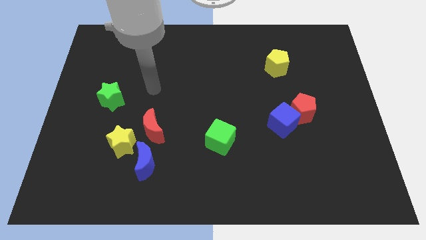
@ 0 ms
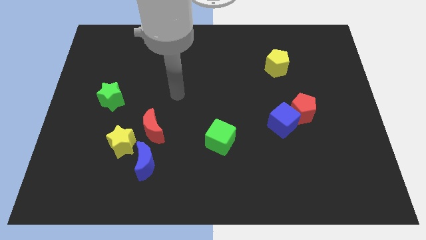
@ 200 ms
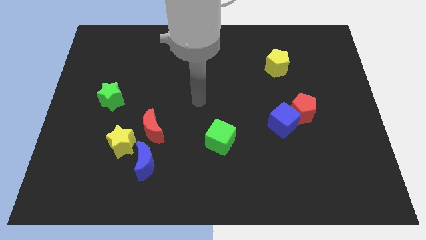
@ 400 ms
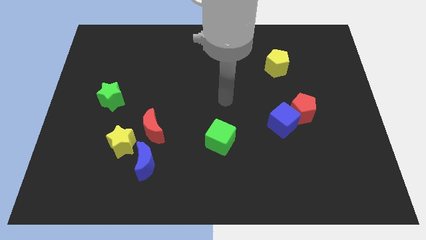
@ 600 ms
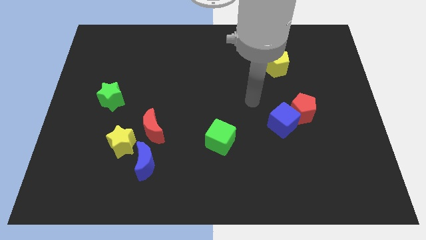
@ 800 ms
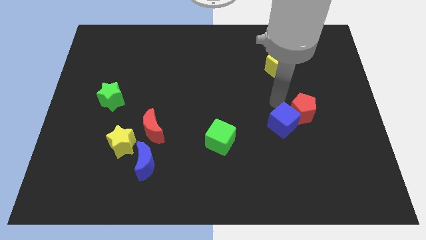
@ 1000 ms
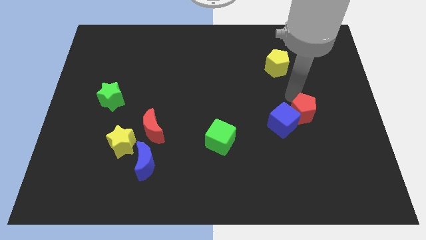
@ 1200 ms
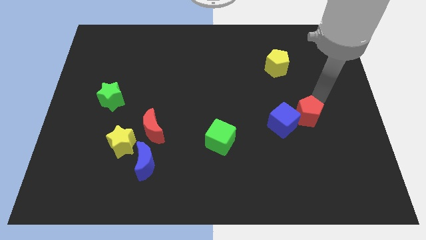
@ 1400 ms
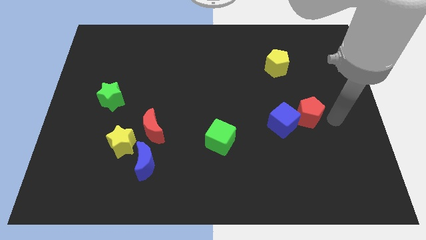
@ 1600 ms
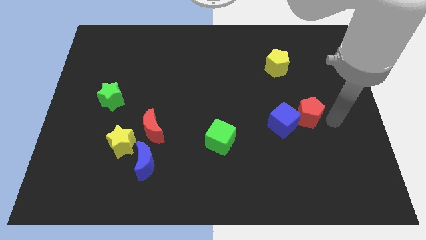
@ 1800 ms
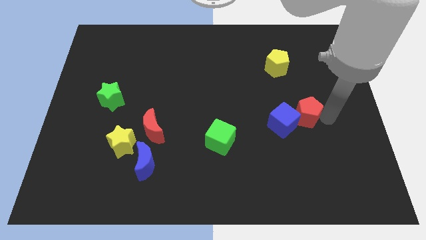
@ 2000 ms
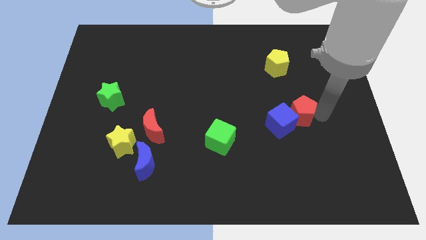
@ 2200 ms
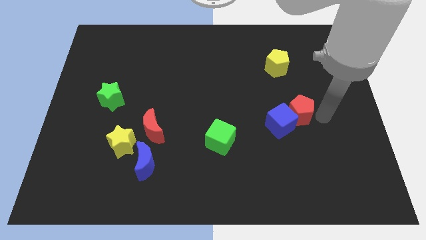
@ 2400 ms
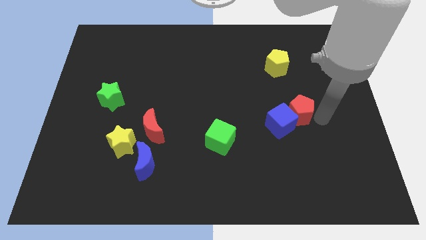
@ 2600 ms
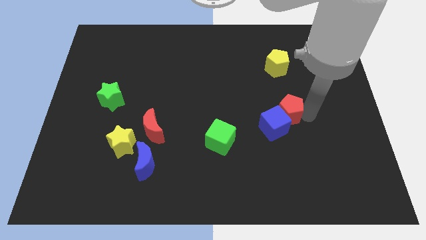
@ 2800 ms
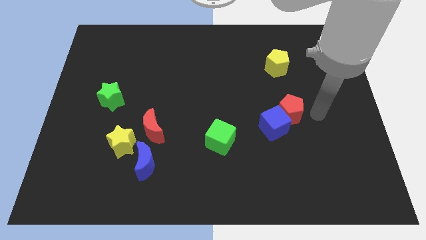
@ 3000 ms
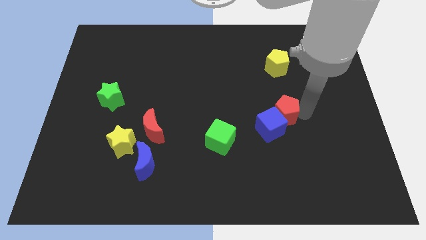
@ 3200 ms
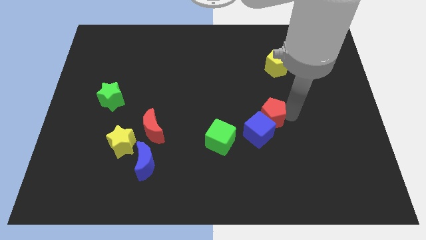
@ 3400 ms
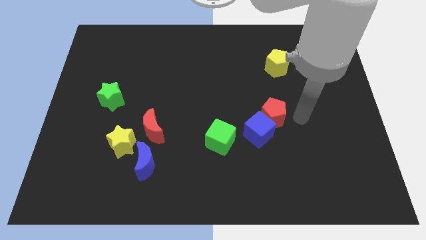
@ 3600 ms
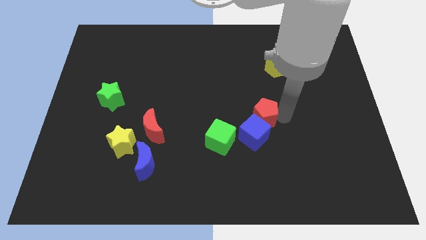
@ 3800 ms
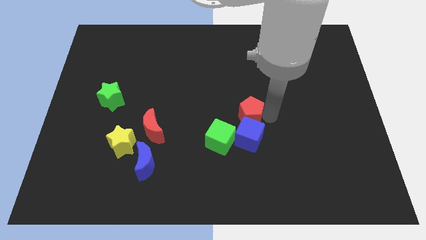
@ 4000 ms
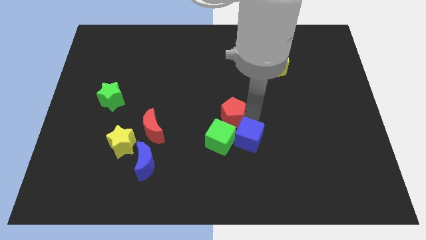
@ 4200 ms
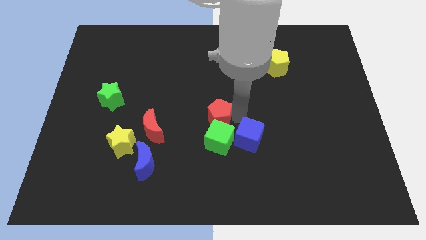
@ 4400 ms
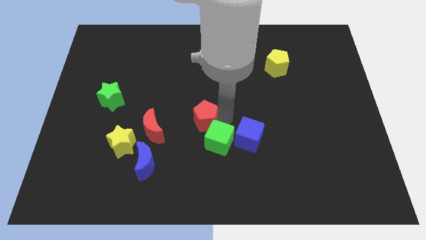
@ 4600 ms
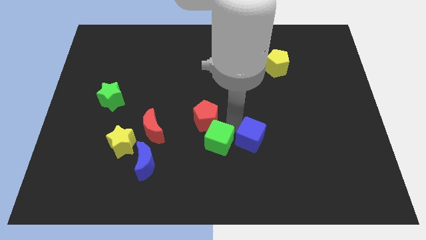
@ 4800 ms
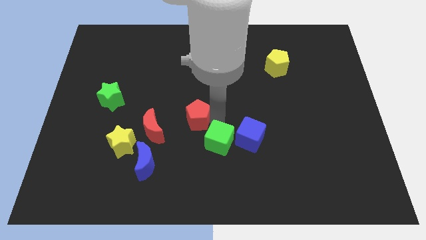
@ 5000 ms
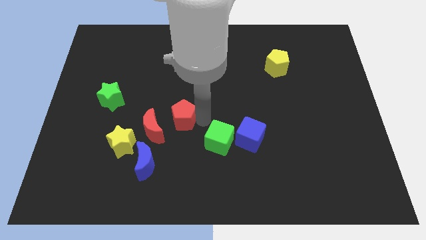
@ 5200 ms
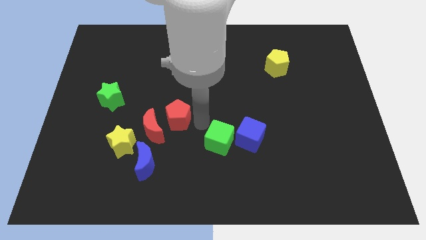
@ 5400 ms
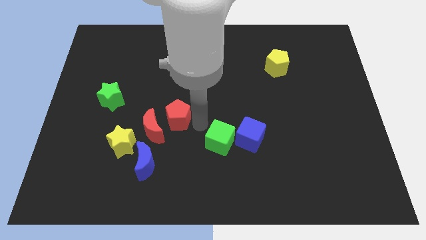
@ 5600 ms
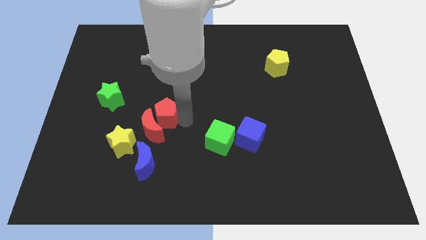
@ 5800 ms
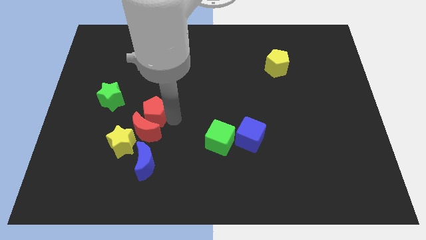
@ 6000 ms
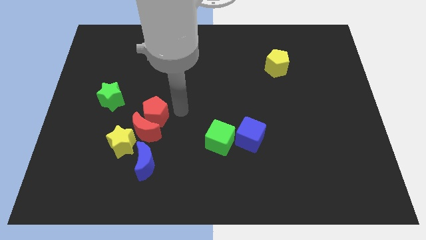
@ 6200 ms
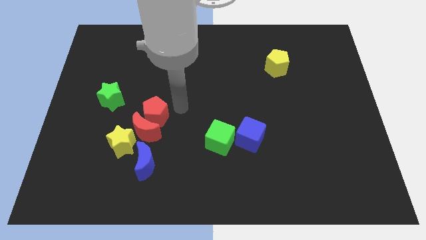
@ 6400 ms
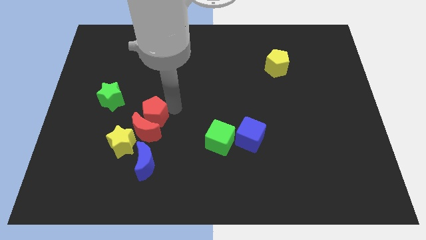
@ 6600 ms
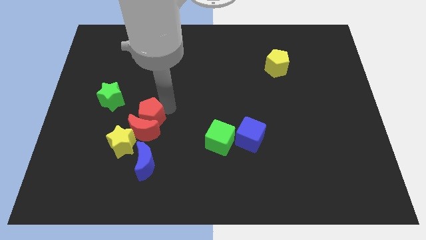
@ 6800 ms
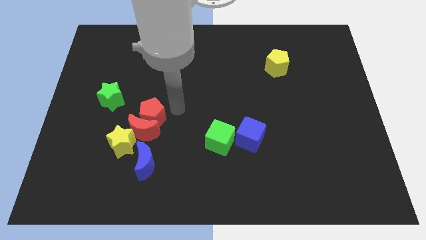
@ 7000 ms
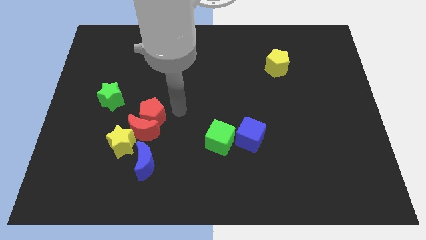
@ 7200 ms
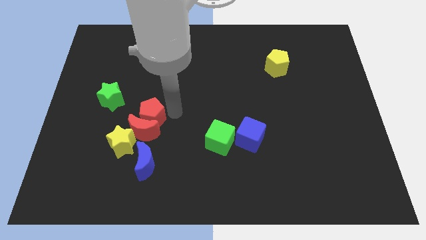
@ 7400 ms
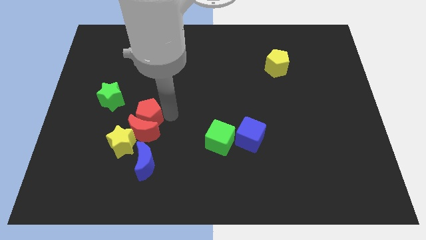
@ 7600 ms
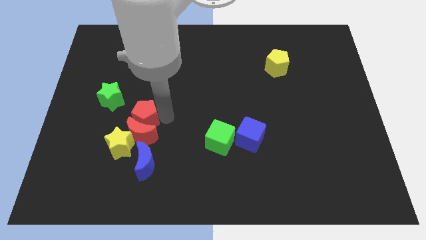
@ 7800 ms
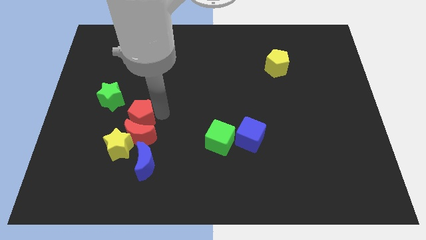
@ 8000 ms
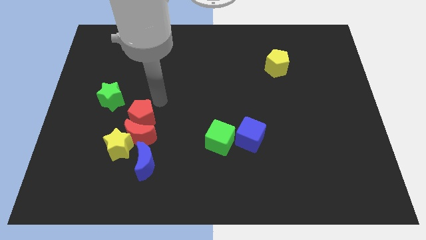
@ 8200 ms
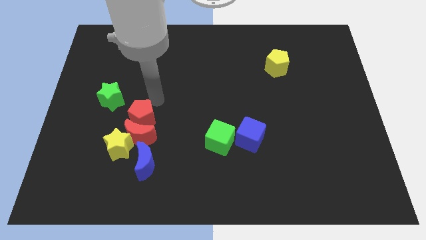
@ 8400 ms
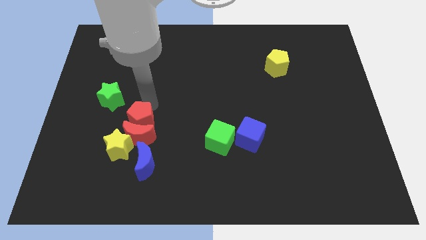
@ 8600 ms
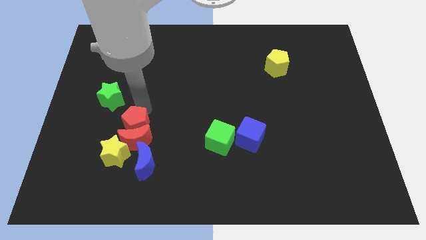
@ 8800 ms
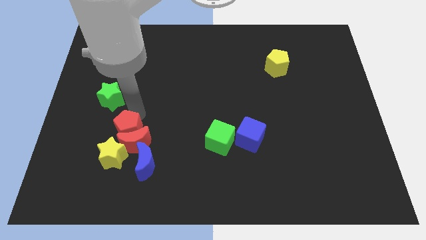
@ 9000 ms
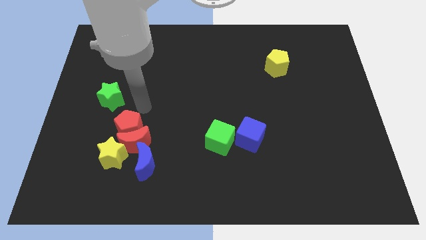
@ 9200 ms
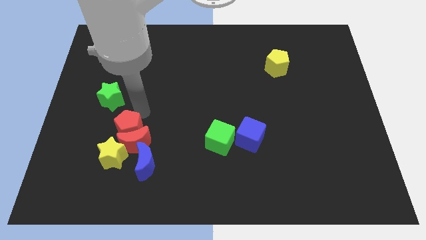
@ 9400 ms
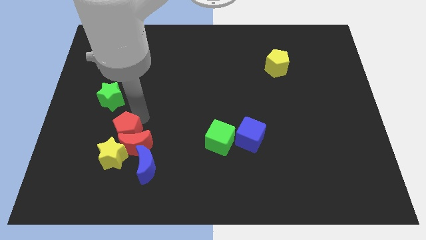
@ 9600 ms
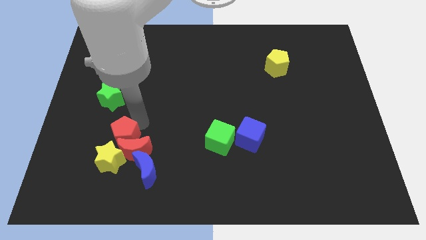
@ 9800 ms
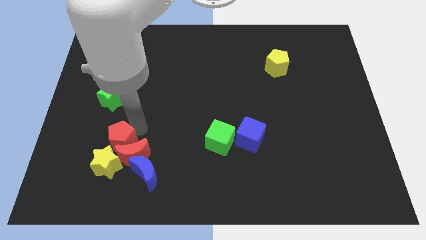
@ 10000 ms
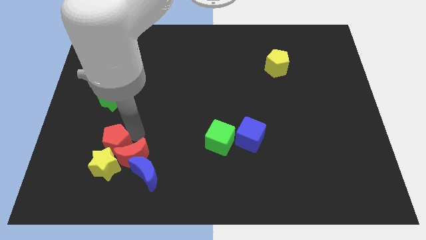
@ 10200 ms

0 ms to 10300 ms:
put the red pentagon towards the yellow star

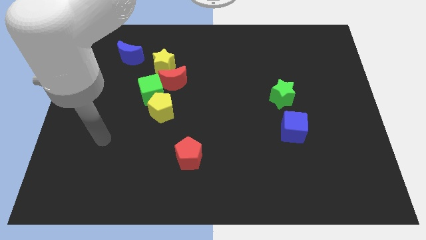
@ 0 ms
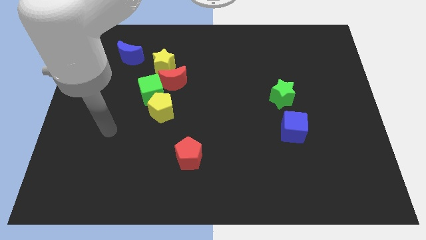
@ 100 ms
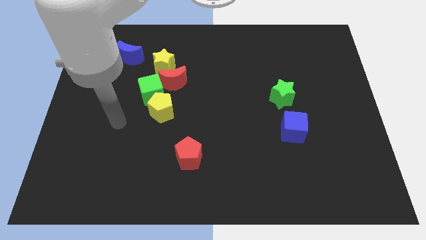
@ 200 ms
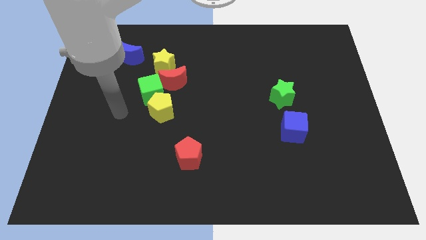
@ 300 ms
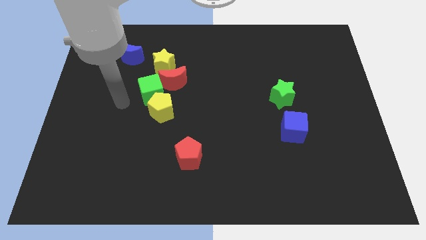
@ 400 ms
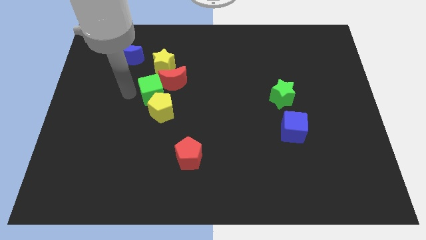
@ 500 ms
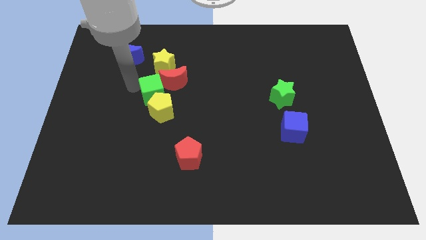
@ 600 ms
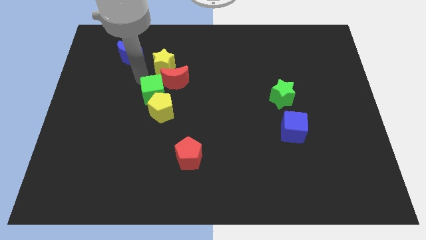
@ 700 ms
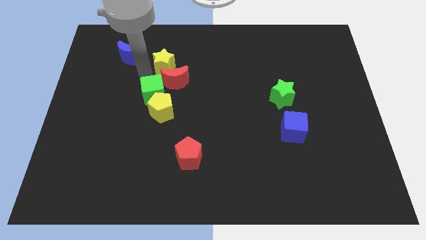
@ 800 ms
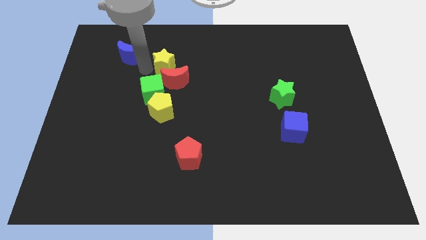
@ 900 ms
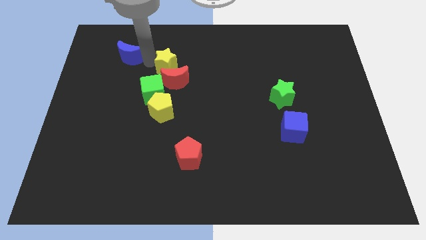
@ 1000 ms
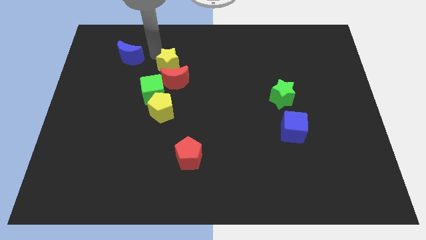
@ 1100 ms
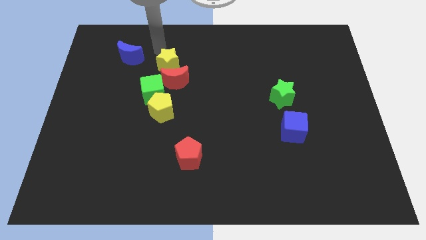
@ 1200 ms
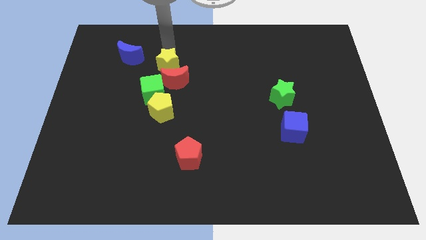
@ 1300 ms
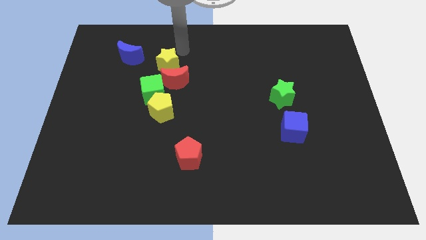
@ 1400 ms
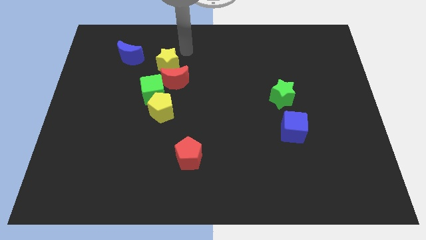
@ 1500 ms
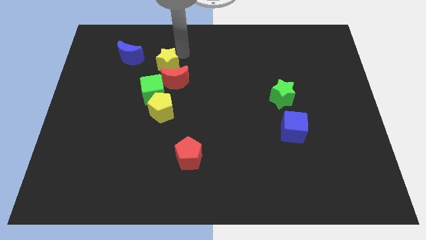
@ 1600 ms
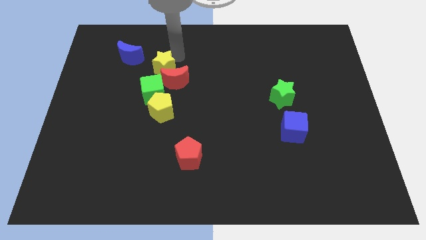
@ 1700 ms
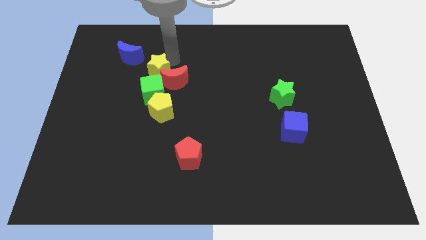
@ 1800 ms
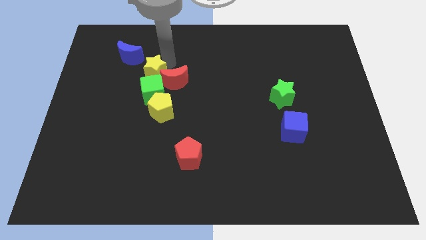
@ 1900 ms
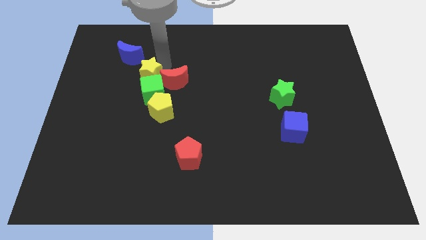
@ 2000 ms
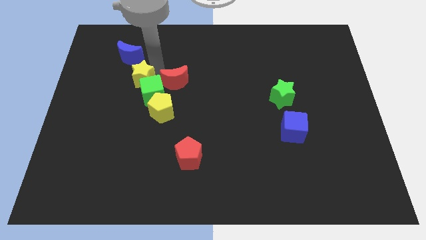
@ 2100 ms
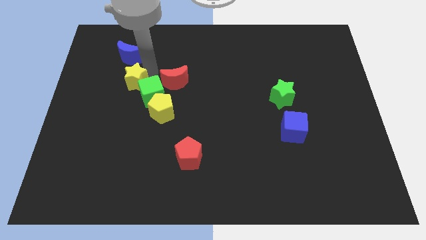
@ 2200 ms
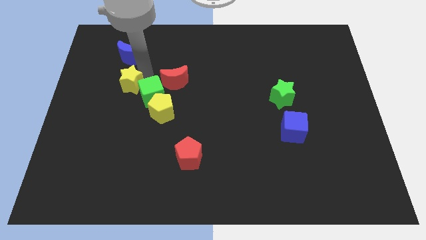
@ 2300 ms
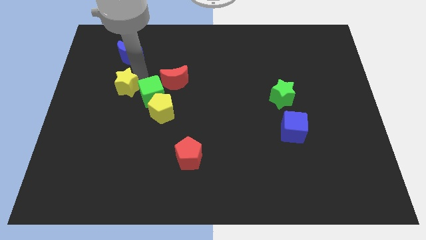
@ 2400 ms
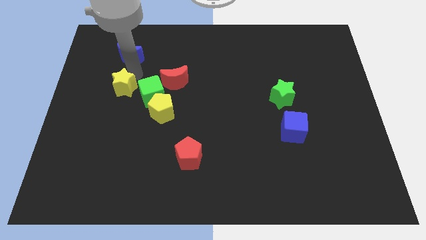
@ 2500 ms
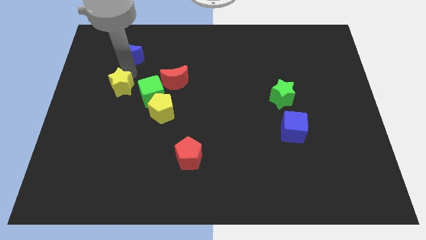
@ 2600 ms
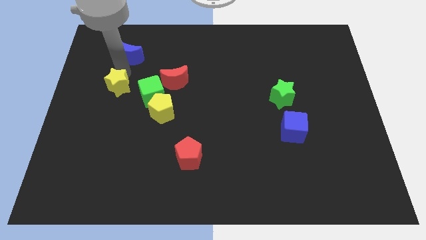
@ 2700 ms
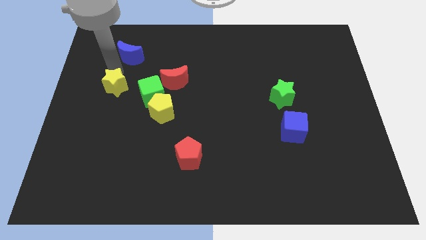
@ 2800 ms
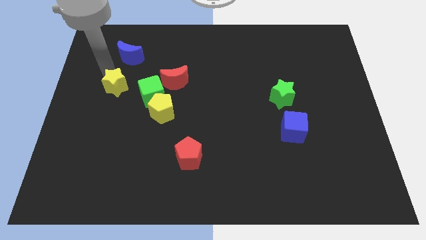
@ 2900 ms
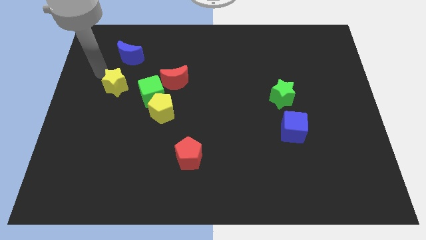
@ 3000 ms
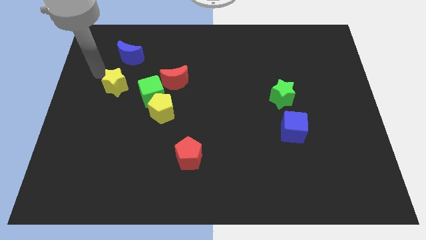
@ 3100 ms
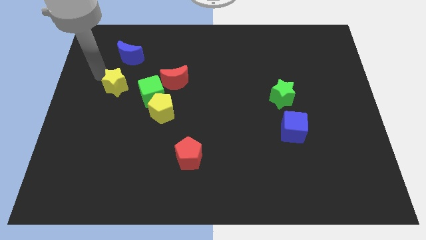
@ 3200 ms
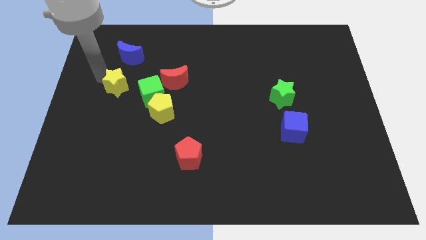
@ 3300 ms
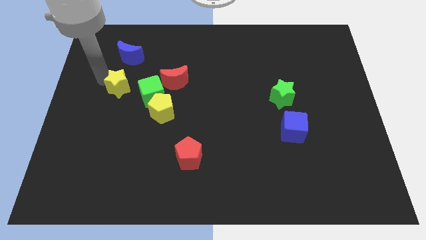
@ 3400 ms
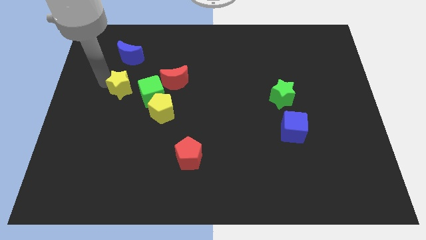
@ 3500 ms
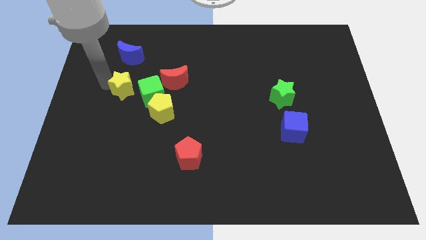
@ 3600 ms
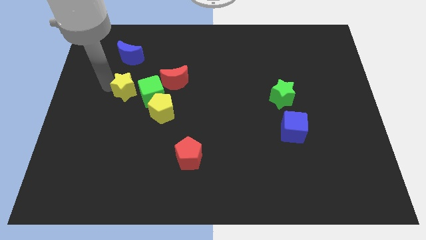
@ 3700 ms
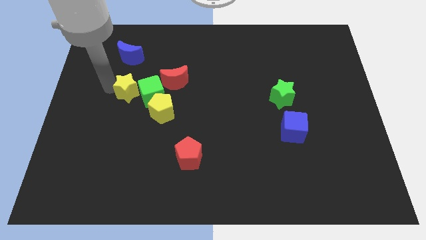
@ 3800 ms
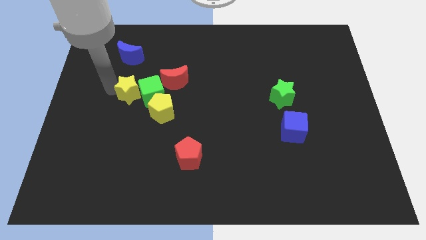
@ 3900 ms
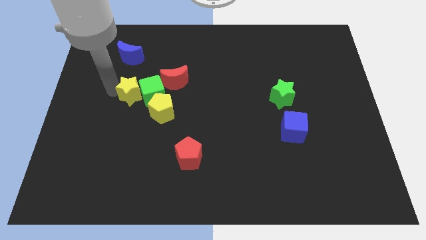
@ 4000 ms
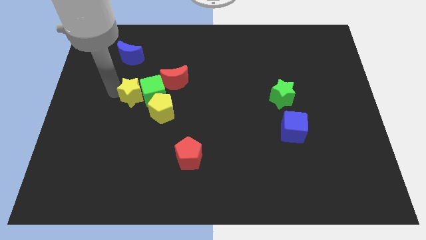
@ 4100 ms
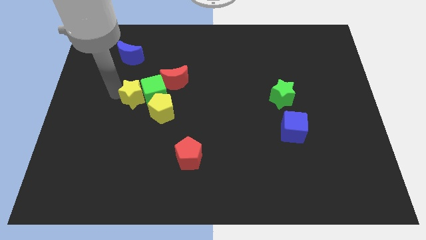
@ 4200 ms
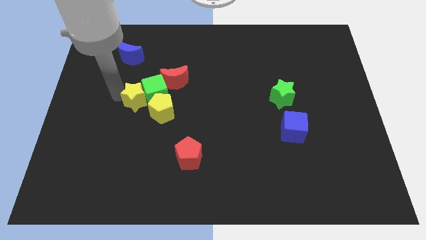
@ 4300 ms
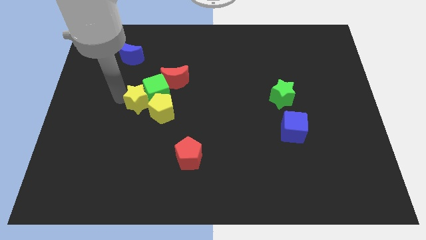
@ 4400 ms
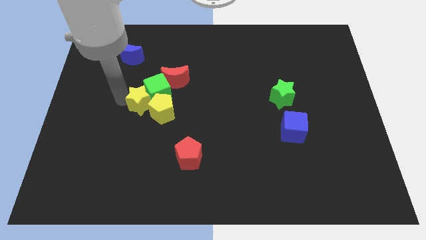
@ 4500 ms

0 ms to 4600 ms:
put the yellow star towards the yellow pentagon
